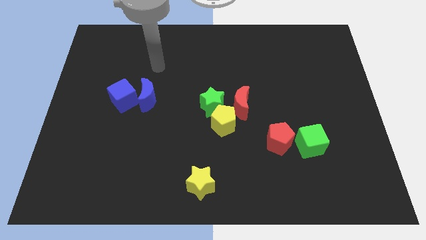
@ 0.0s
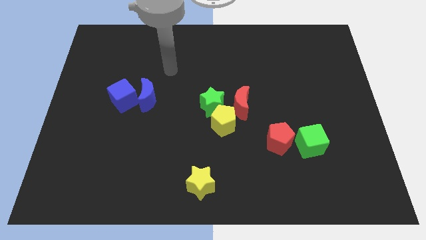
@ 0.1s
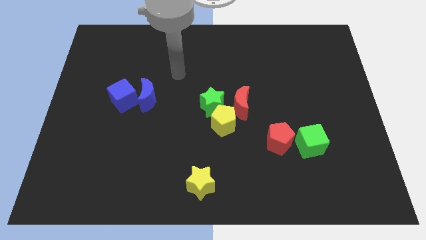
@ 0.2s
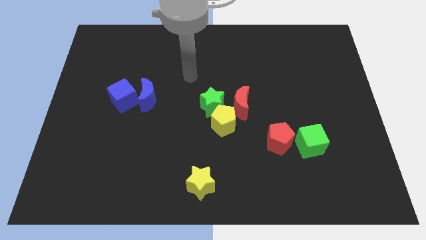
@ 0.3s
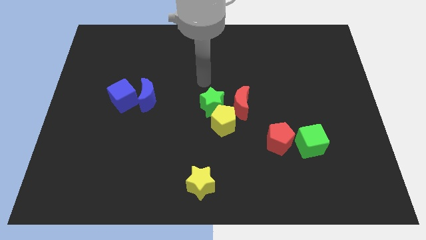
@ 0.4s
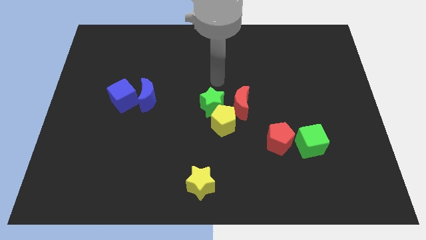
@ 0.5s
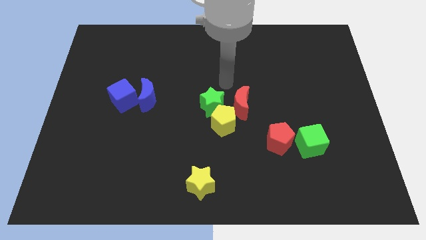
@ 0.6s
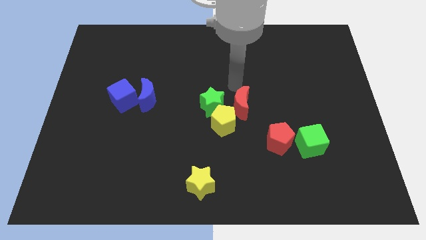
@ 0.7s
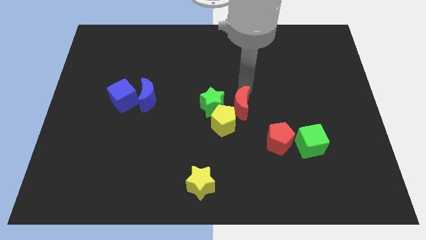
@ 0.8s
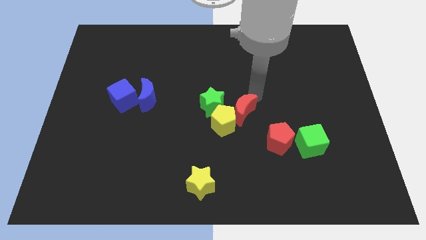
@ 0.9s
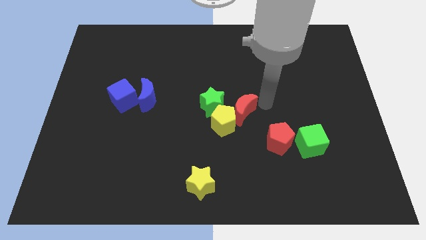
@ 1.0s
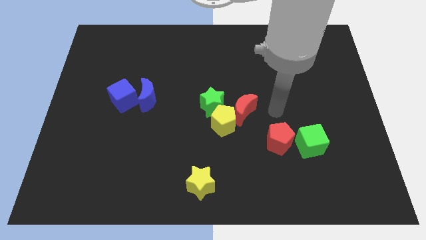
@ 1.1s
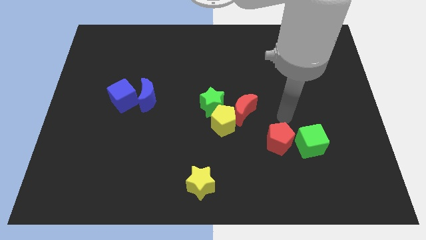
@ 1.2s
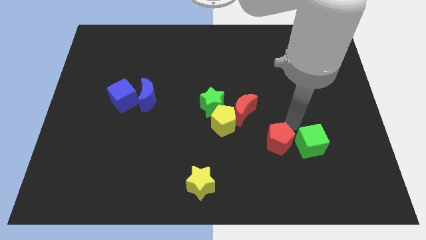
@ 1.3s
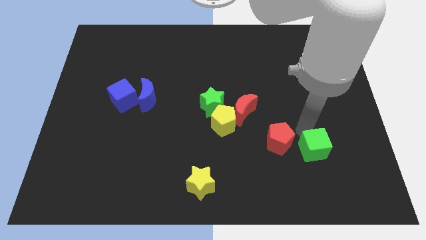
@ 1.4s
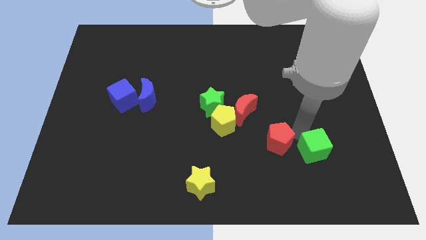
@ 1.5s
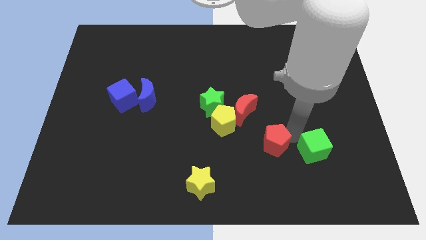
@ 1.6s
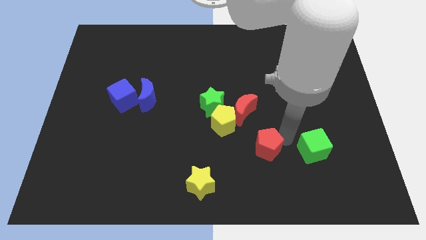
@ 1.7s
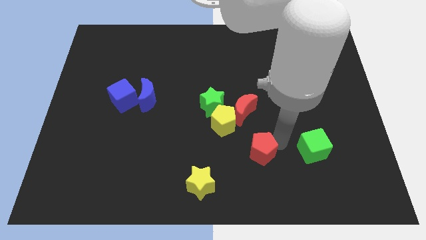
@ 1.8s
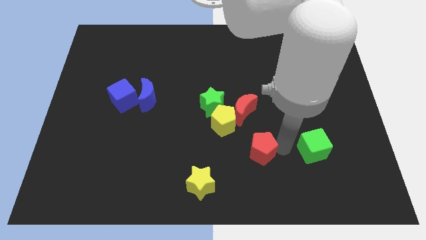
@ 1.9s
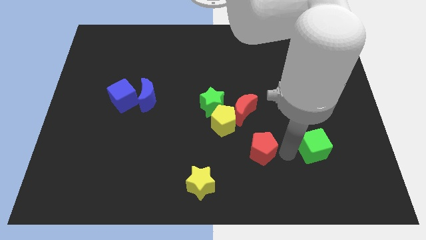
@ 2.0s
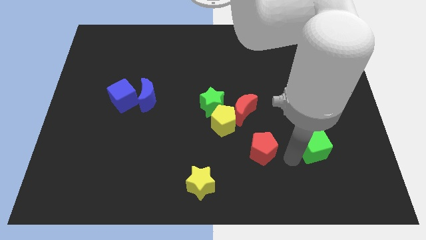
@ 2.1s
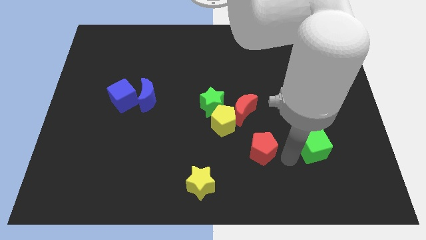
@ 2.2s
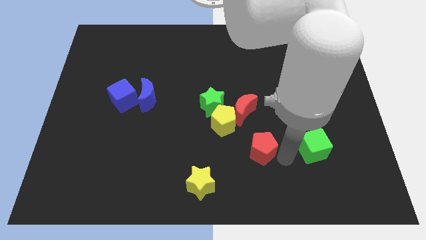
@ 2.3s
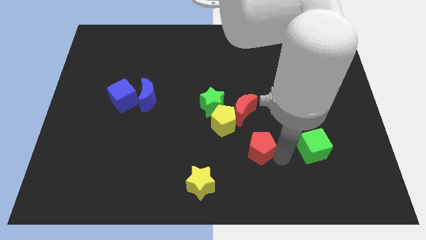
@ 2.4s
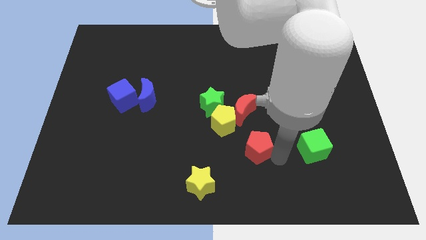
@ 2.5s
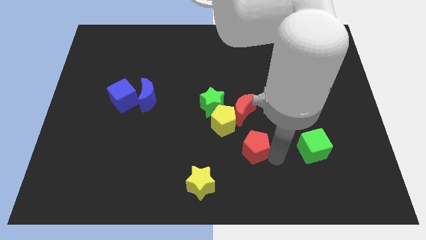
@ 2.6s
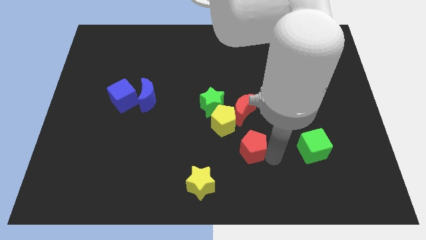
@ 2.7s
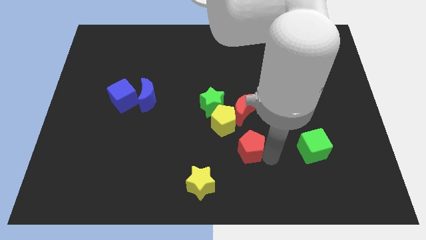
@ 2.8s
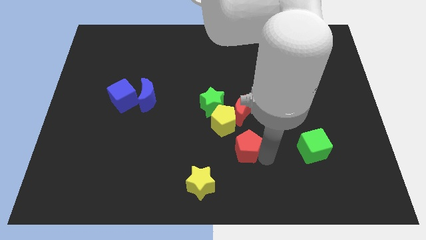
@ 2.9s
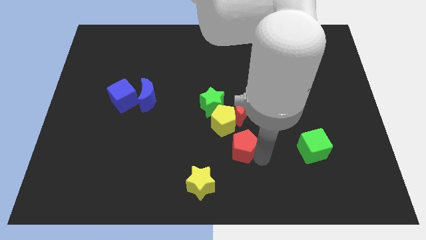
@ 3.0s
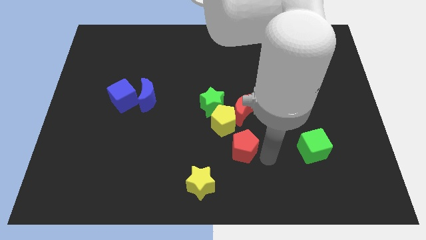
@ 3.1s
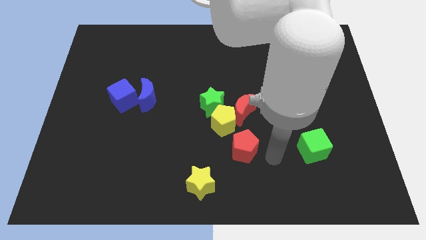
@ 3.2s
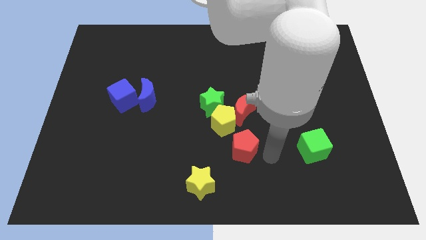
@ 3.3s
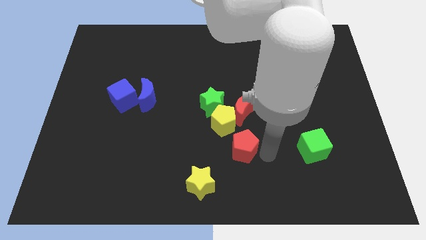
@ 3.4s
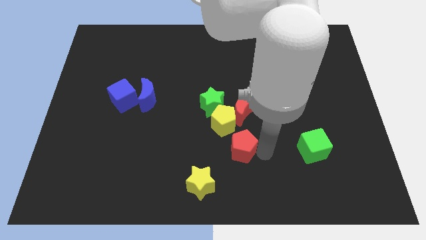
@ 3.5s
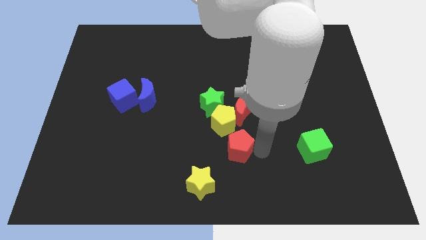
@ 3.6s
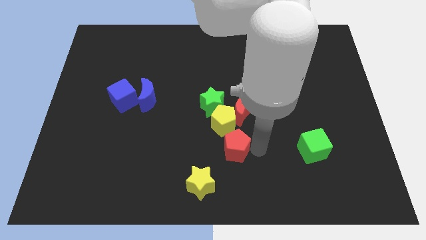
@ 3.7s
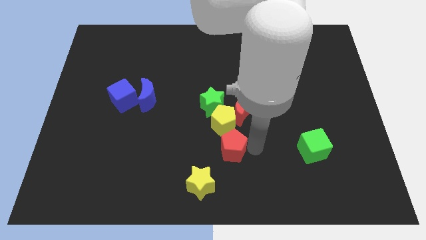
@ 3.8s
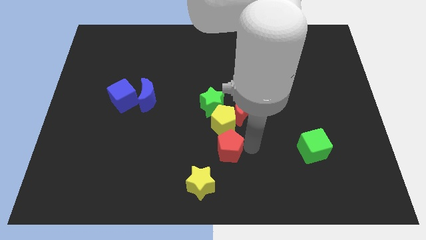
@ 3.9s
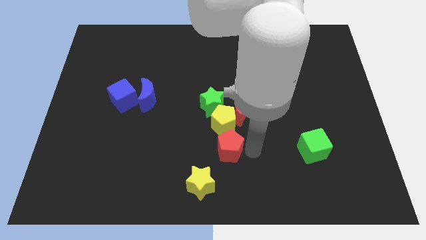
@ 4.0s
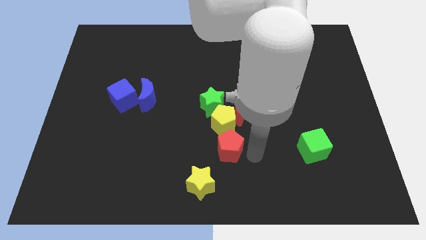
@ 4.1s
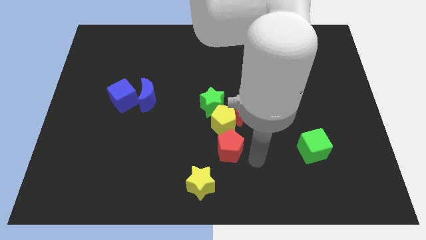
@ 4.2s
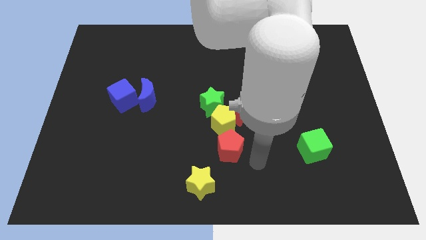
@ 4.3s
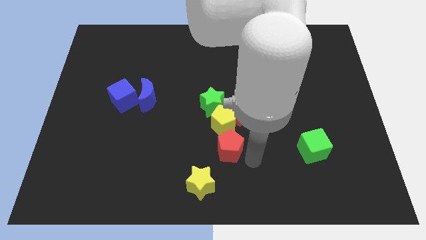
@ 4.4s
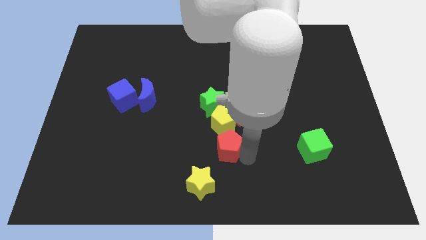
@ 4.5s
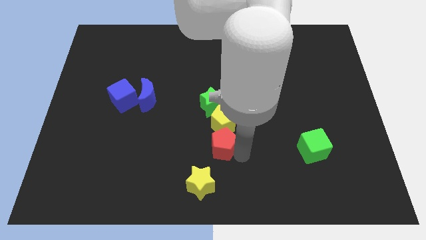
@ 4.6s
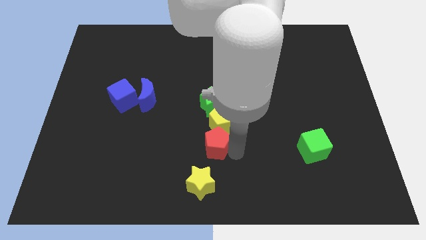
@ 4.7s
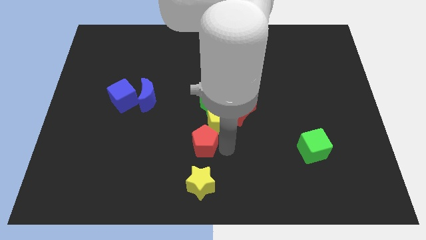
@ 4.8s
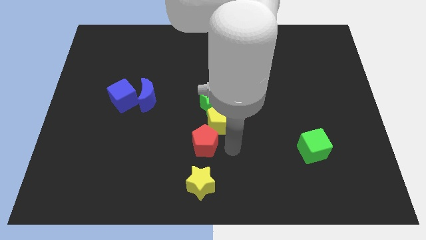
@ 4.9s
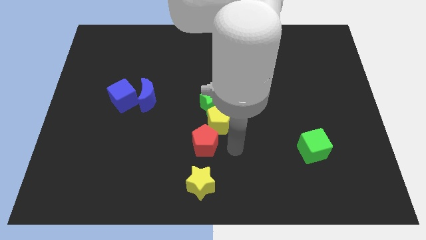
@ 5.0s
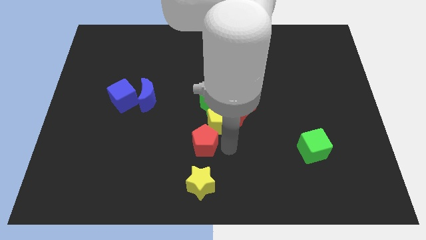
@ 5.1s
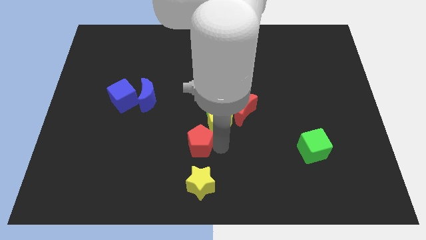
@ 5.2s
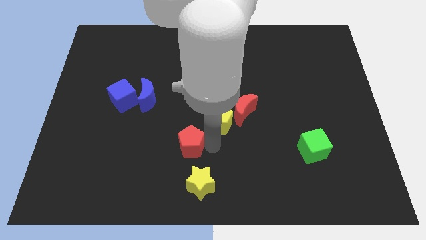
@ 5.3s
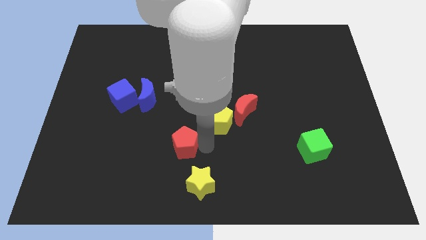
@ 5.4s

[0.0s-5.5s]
push the red pentagon left

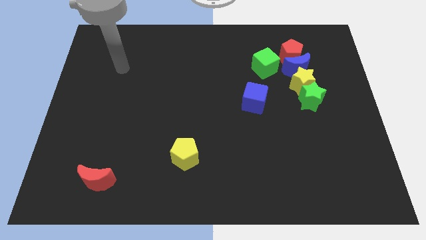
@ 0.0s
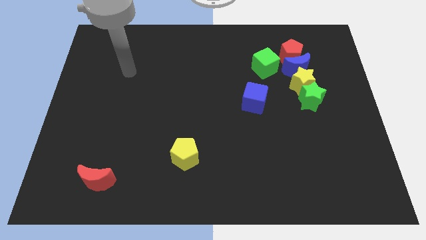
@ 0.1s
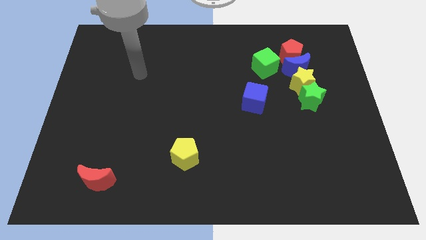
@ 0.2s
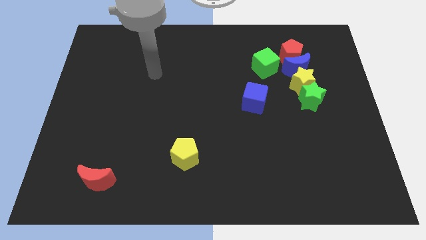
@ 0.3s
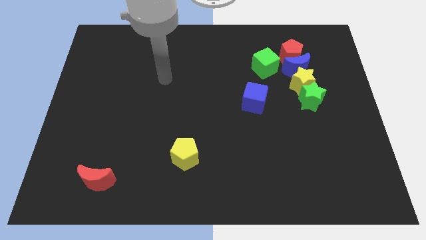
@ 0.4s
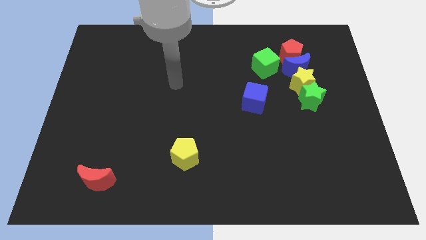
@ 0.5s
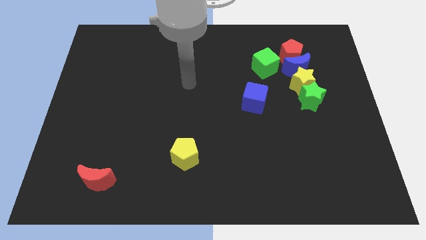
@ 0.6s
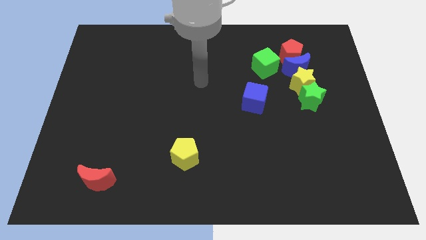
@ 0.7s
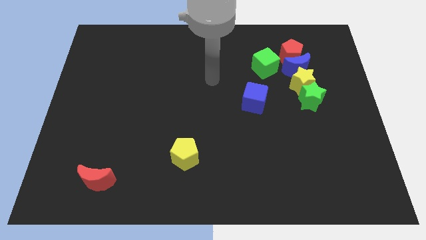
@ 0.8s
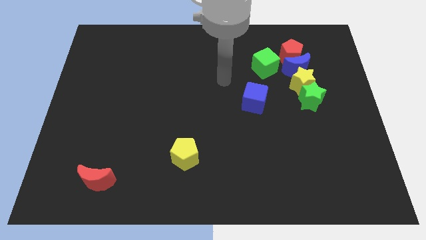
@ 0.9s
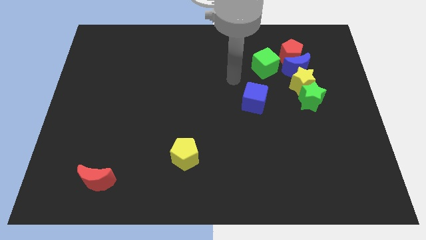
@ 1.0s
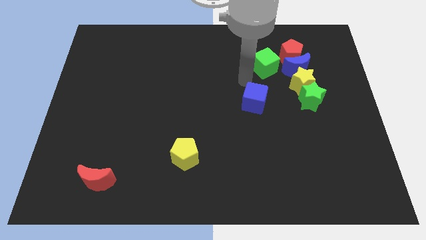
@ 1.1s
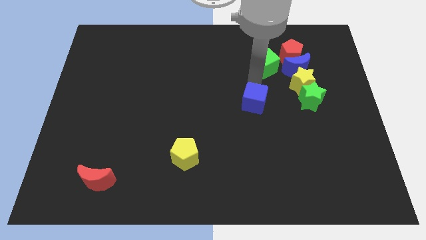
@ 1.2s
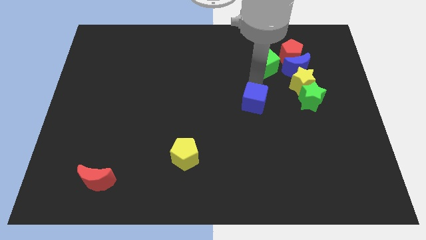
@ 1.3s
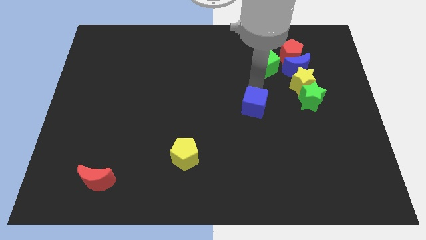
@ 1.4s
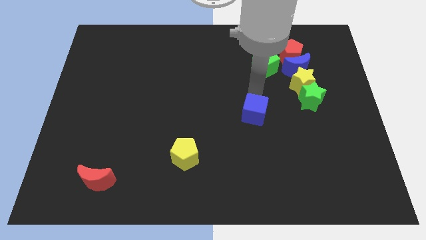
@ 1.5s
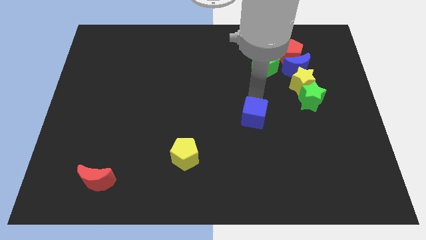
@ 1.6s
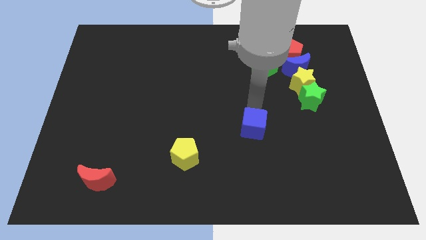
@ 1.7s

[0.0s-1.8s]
slide the blue cube down a little bit

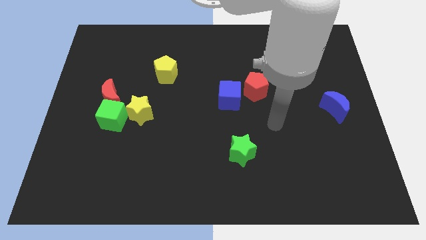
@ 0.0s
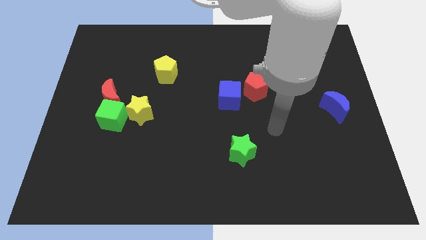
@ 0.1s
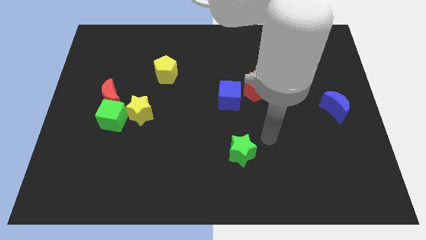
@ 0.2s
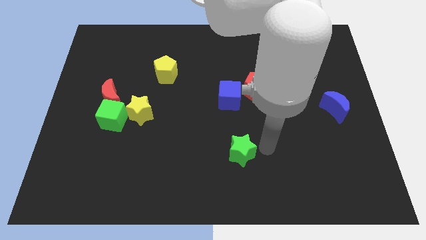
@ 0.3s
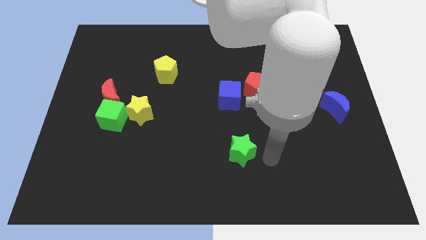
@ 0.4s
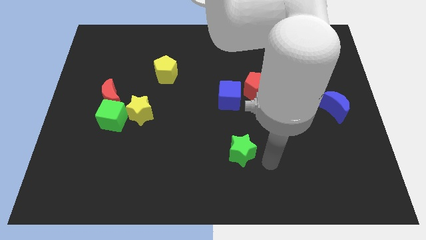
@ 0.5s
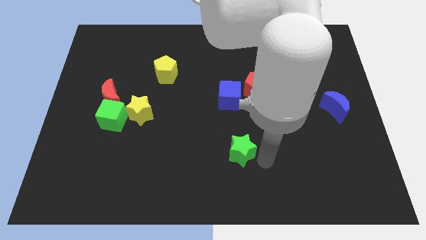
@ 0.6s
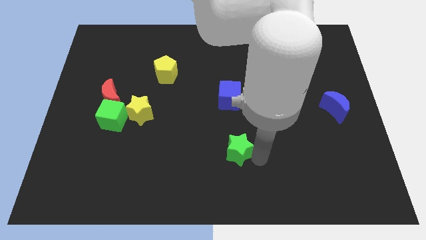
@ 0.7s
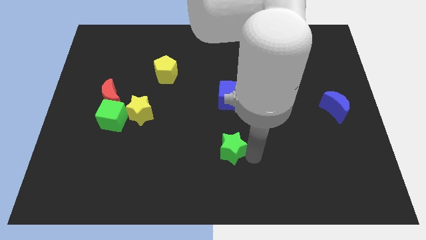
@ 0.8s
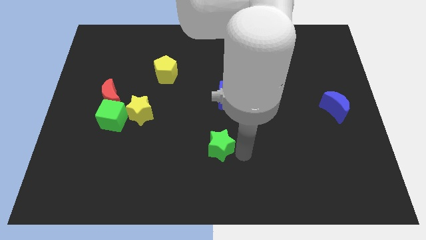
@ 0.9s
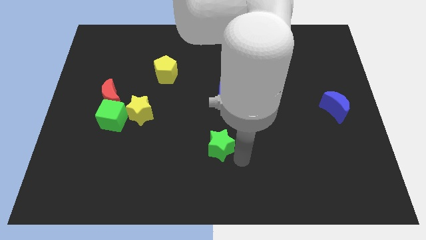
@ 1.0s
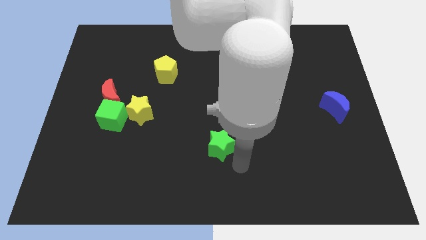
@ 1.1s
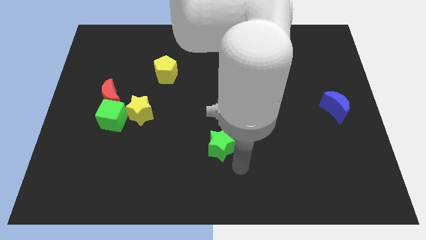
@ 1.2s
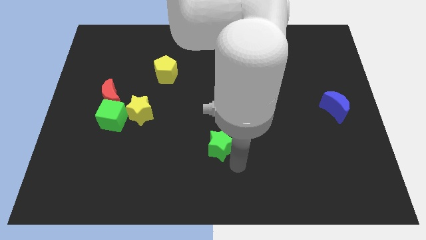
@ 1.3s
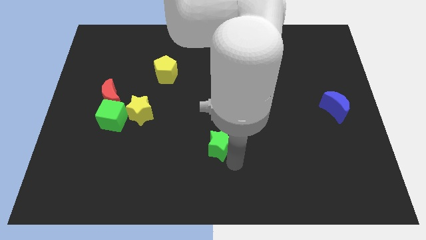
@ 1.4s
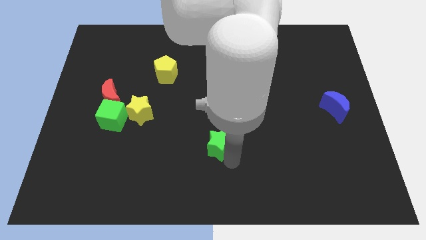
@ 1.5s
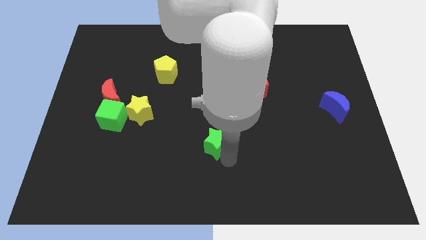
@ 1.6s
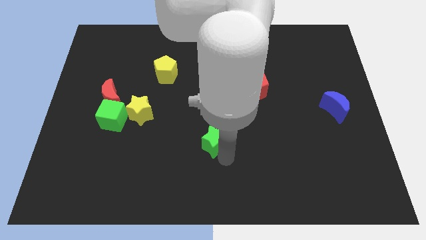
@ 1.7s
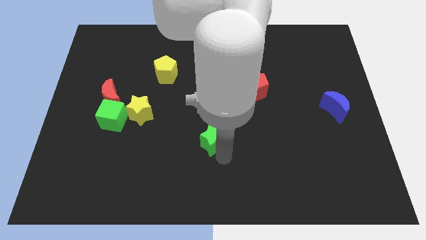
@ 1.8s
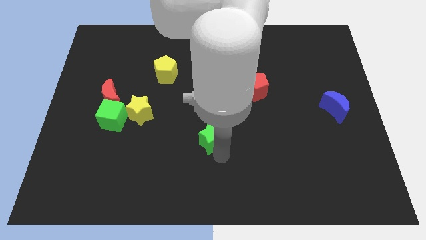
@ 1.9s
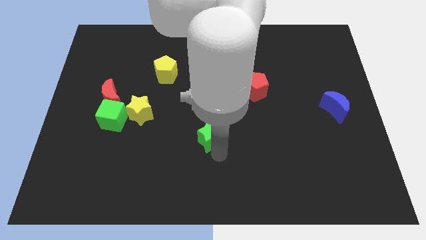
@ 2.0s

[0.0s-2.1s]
push the green star a bit upwards and to the left diagonally
